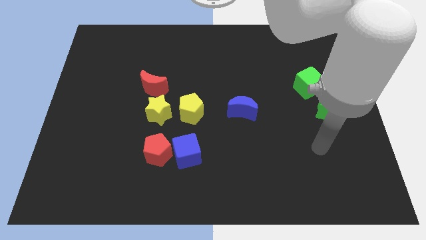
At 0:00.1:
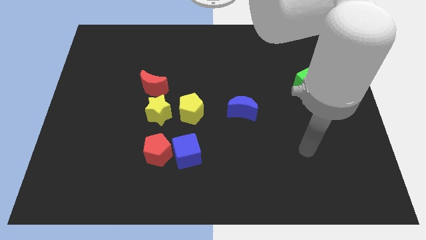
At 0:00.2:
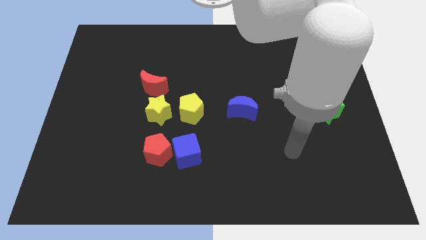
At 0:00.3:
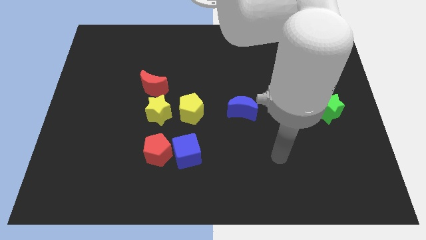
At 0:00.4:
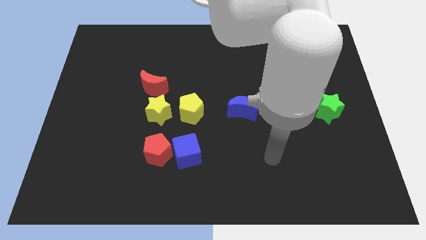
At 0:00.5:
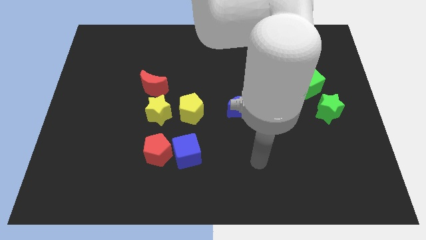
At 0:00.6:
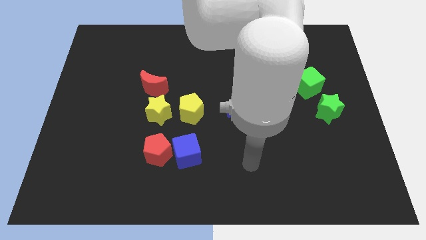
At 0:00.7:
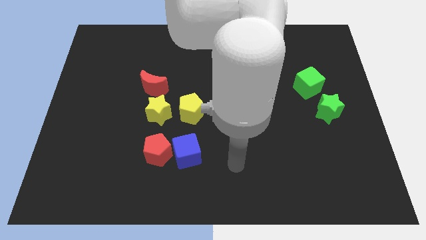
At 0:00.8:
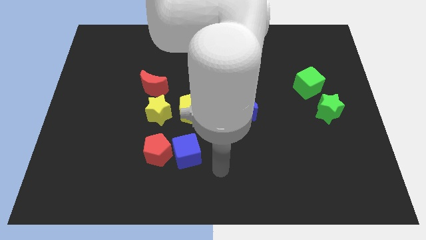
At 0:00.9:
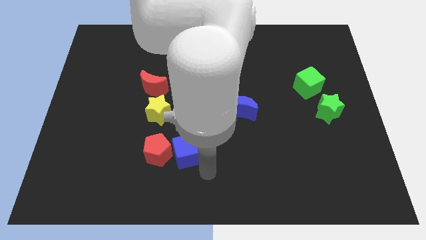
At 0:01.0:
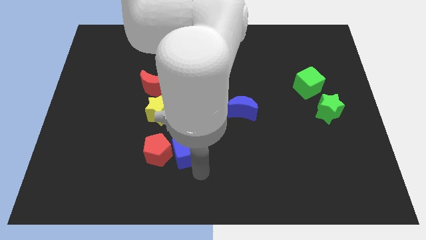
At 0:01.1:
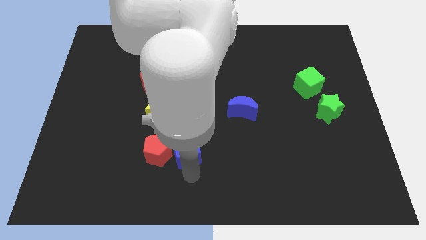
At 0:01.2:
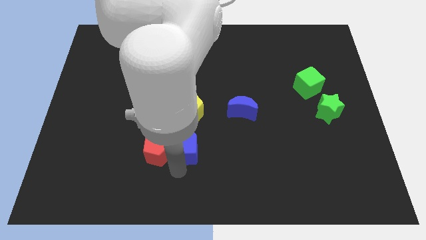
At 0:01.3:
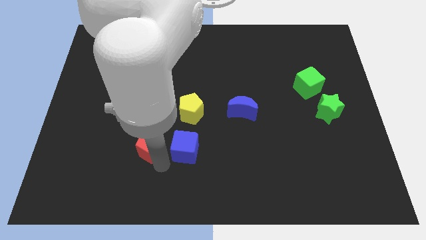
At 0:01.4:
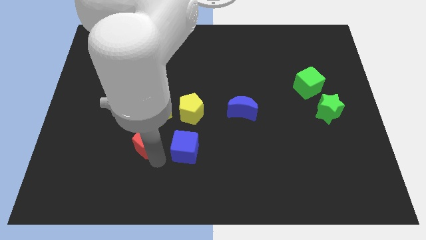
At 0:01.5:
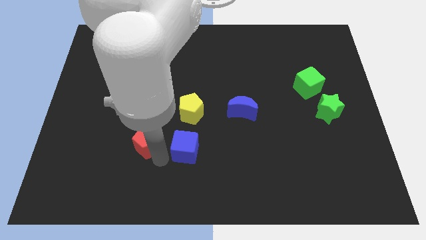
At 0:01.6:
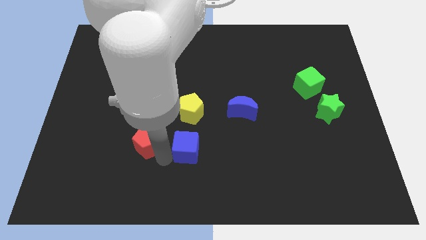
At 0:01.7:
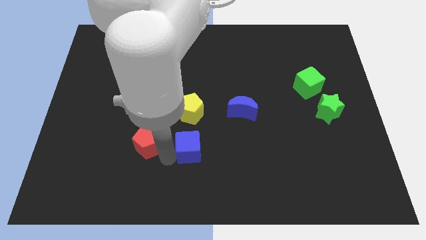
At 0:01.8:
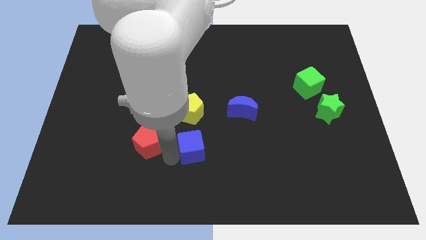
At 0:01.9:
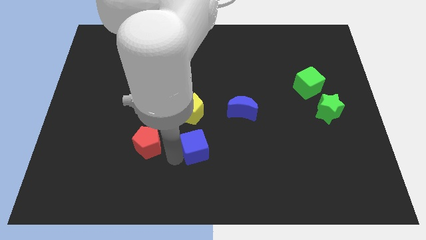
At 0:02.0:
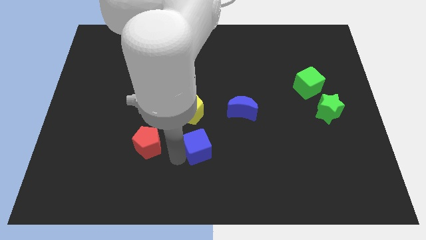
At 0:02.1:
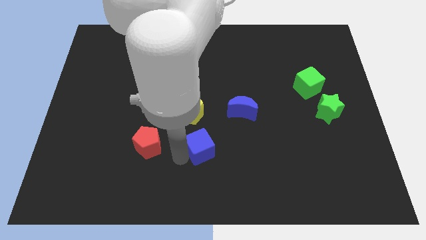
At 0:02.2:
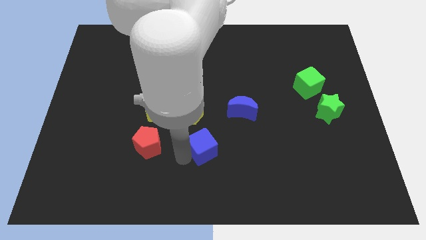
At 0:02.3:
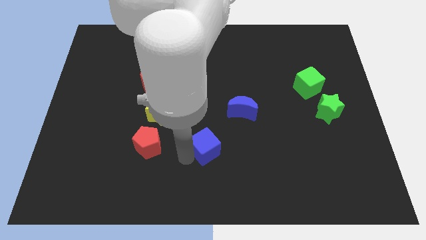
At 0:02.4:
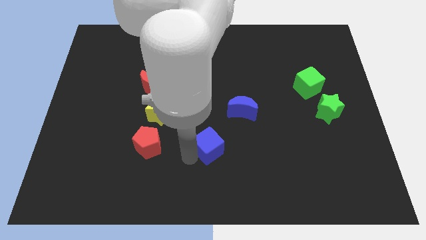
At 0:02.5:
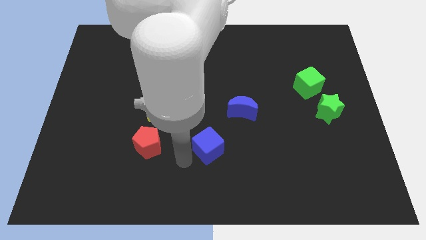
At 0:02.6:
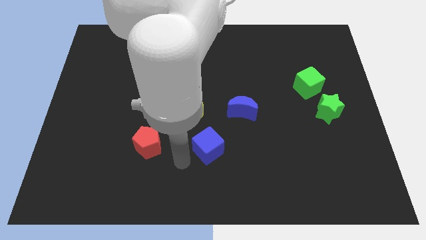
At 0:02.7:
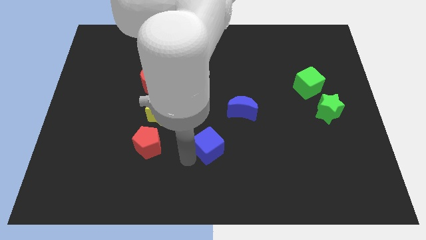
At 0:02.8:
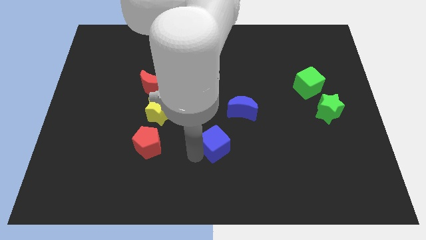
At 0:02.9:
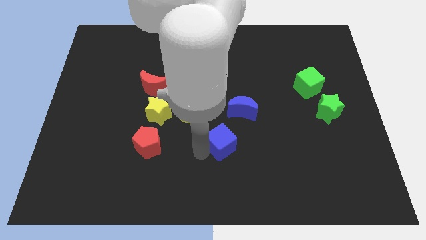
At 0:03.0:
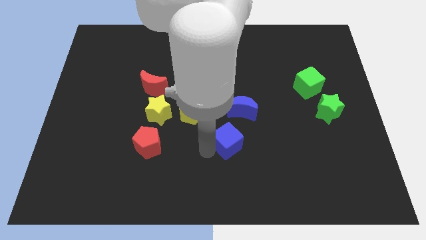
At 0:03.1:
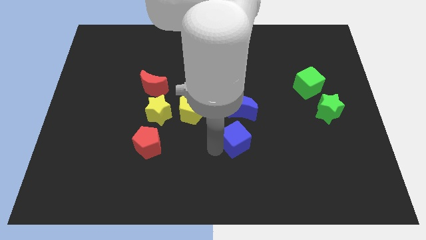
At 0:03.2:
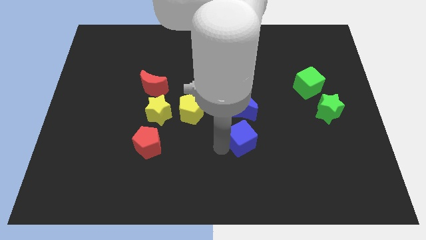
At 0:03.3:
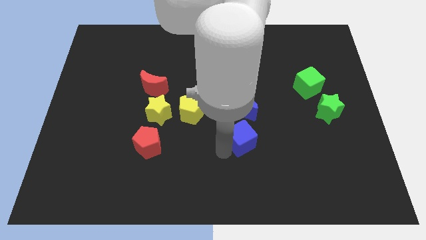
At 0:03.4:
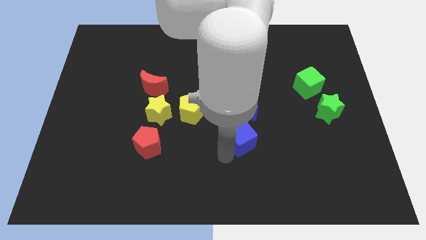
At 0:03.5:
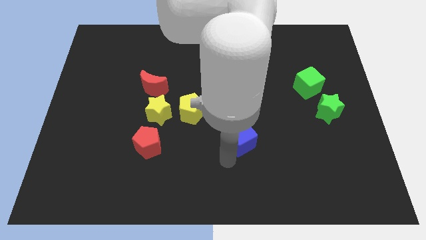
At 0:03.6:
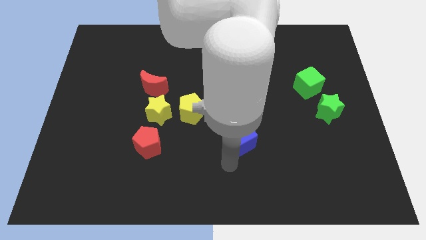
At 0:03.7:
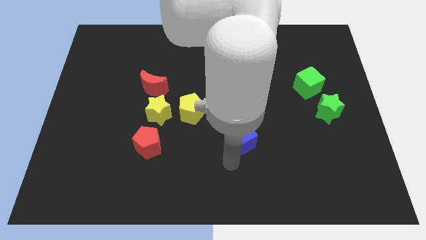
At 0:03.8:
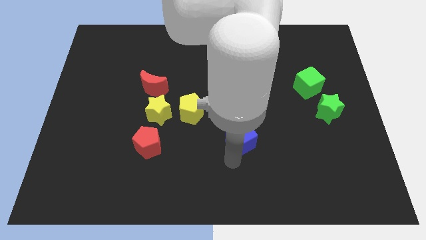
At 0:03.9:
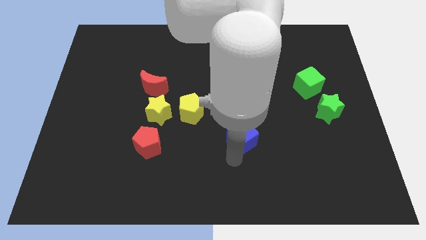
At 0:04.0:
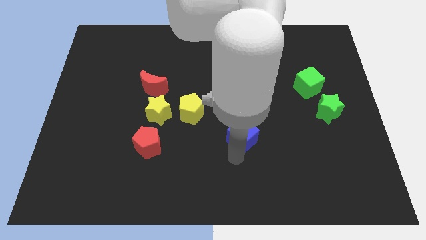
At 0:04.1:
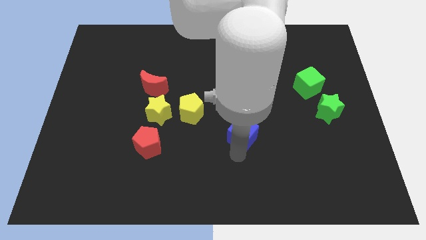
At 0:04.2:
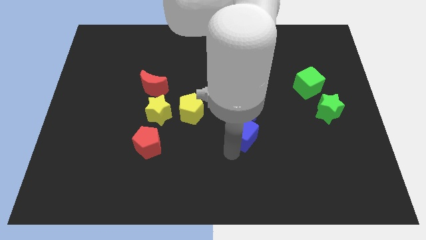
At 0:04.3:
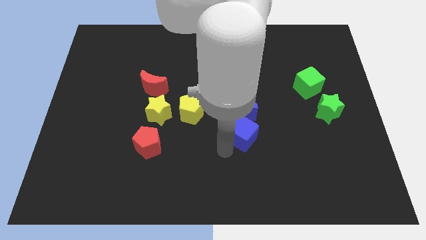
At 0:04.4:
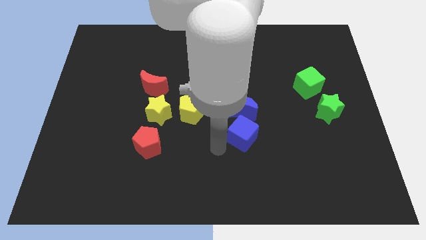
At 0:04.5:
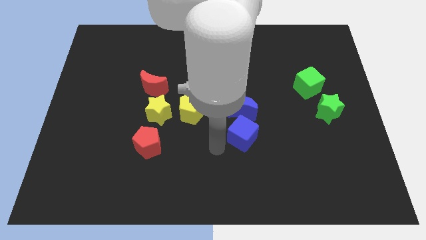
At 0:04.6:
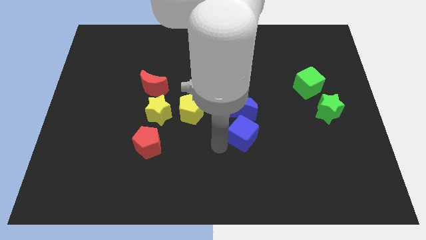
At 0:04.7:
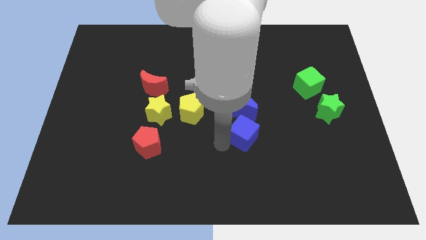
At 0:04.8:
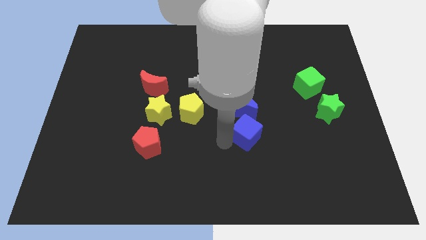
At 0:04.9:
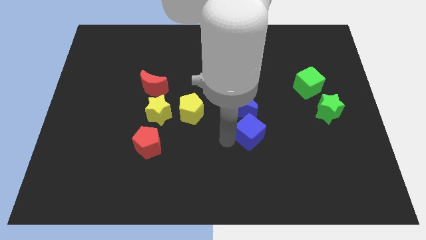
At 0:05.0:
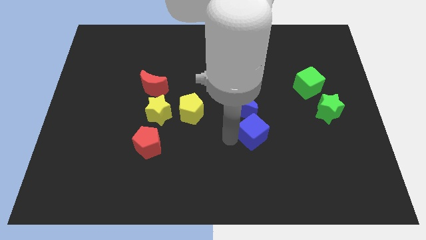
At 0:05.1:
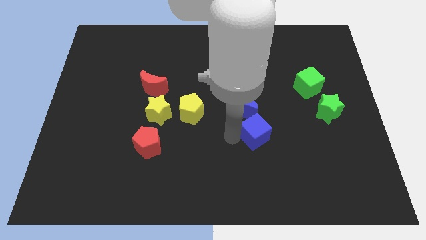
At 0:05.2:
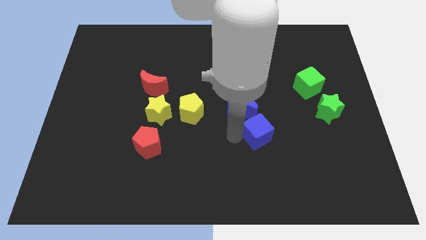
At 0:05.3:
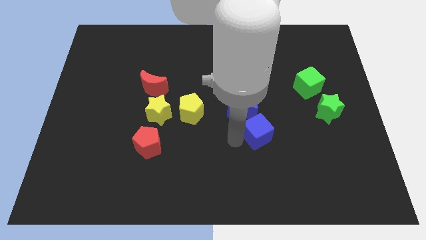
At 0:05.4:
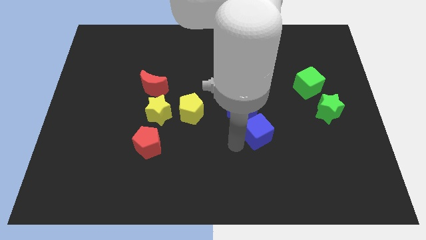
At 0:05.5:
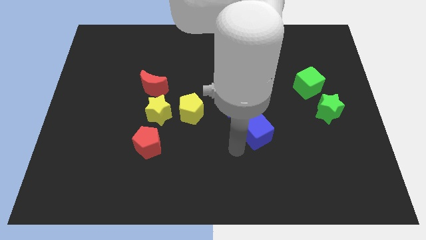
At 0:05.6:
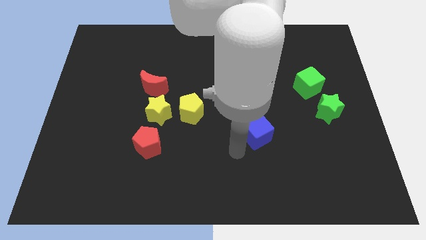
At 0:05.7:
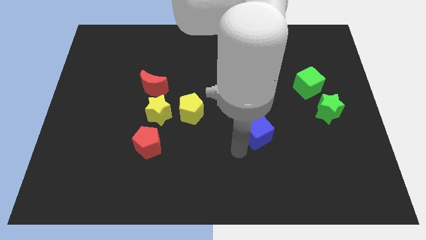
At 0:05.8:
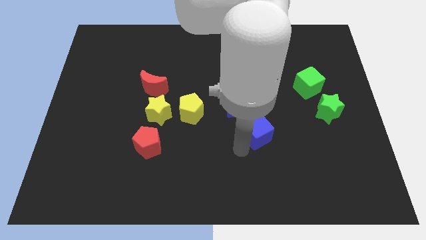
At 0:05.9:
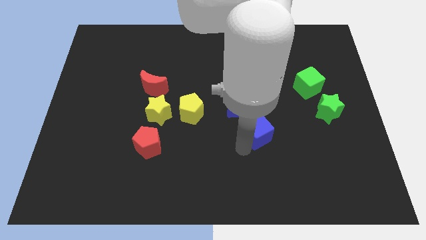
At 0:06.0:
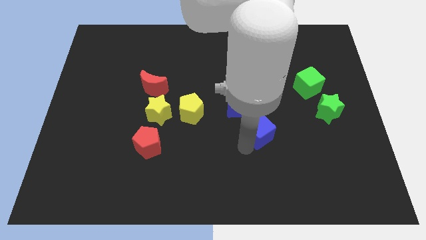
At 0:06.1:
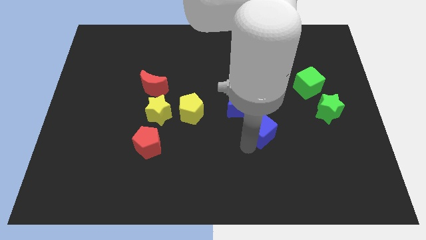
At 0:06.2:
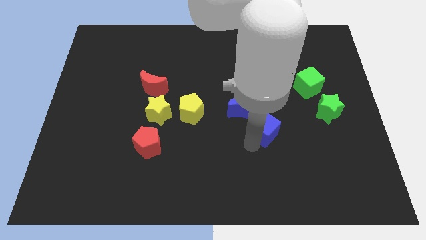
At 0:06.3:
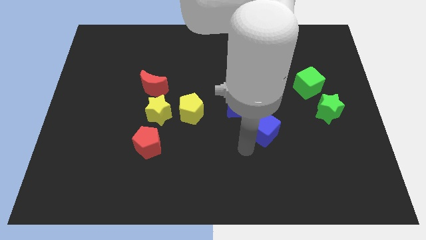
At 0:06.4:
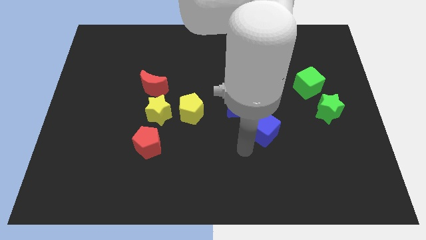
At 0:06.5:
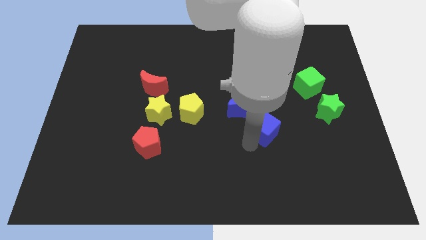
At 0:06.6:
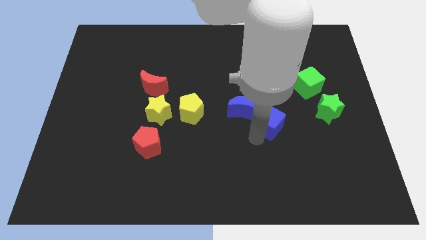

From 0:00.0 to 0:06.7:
move the blue cube to the left side of the green star

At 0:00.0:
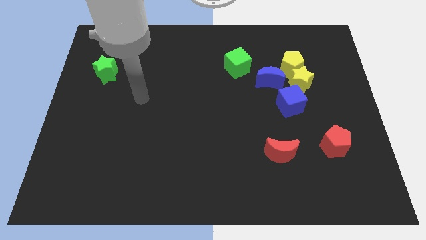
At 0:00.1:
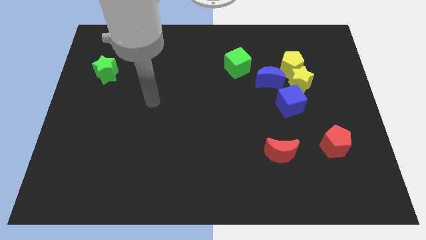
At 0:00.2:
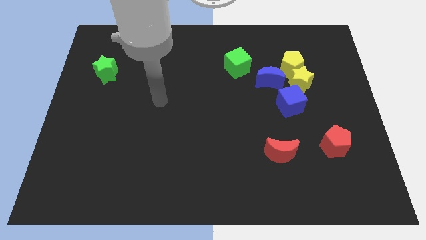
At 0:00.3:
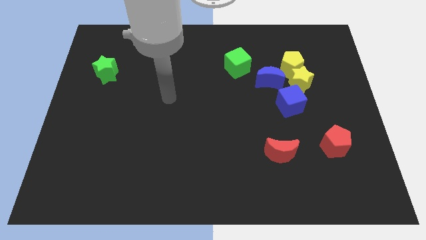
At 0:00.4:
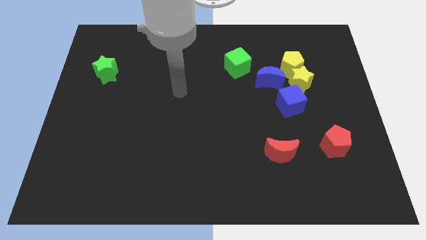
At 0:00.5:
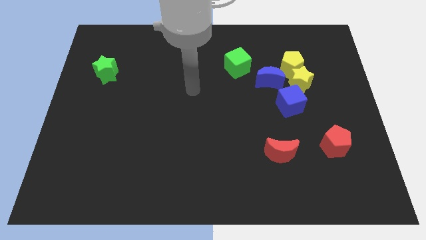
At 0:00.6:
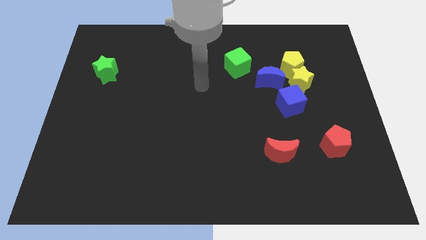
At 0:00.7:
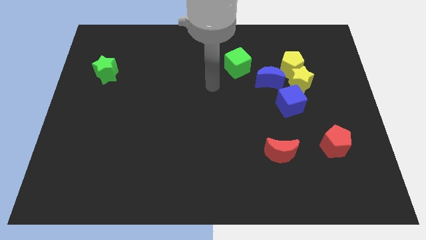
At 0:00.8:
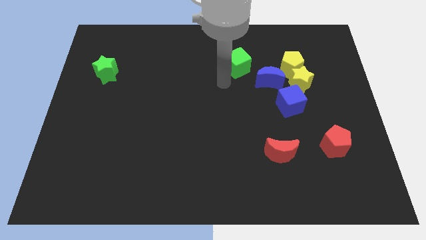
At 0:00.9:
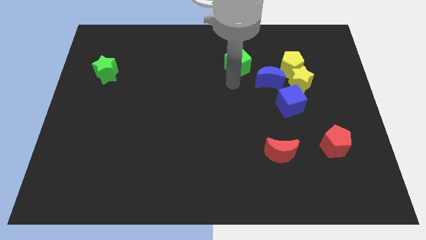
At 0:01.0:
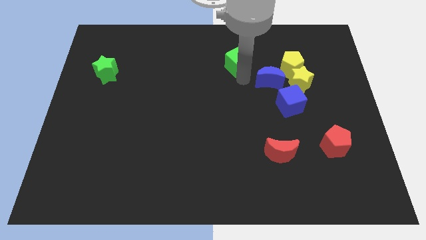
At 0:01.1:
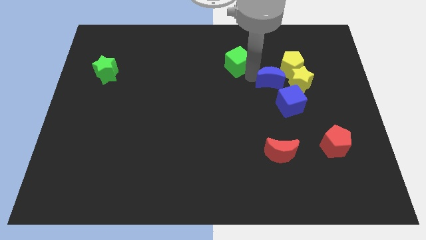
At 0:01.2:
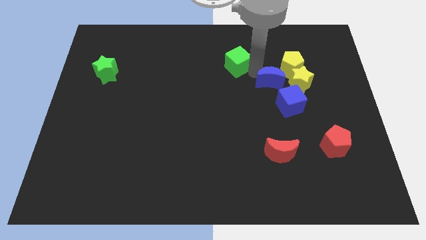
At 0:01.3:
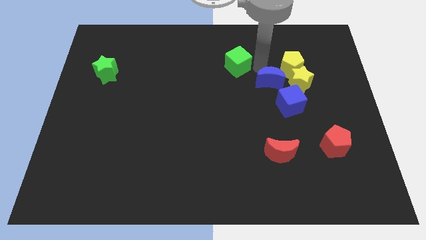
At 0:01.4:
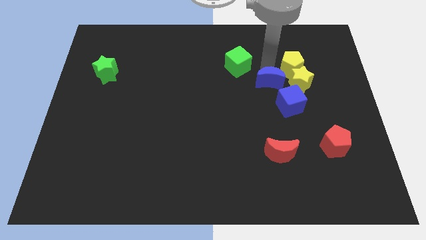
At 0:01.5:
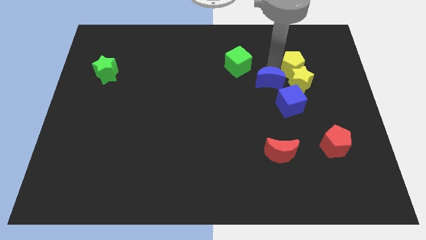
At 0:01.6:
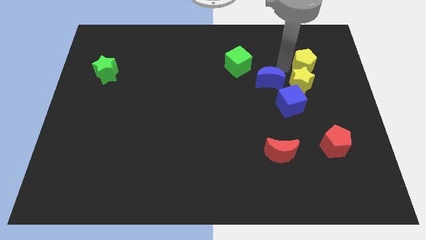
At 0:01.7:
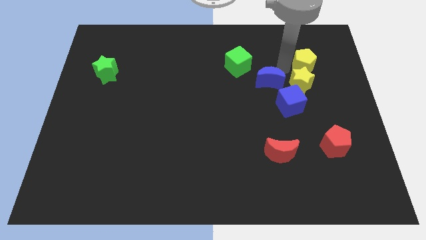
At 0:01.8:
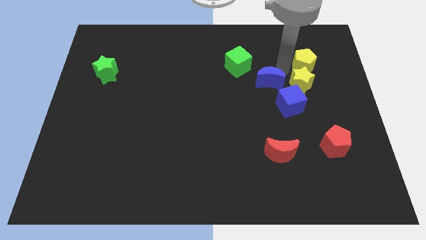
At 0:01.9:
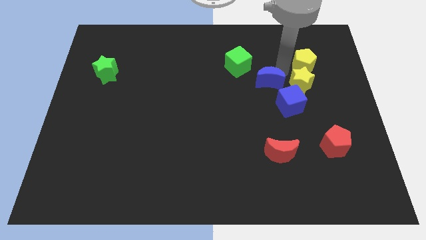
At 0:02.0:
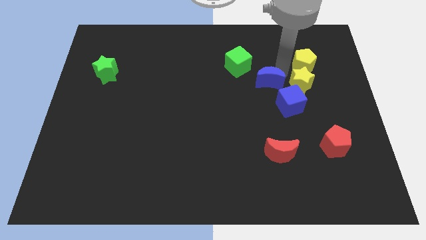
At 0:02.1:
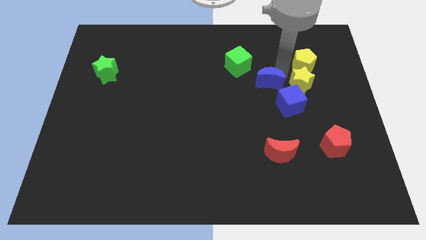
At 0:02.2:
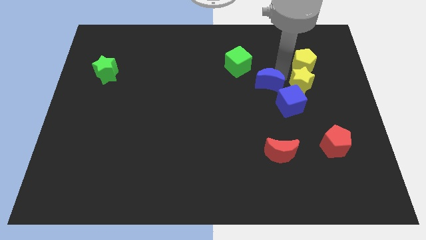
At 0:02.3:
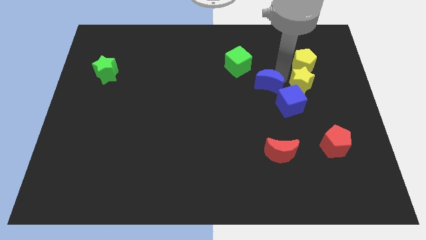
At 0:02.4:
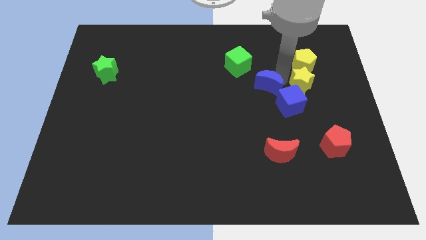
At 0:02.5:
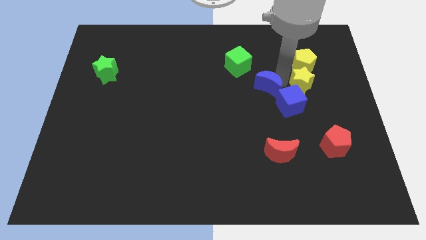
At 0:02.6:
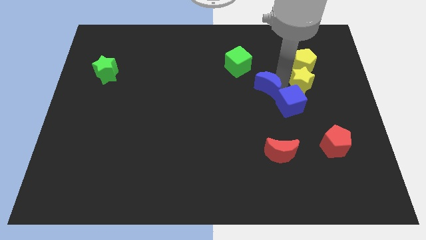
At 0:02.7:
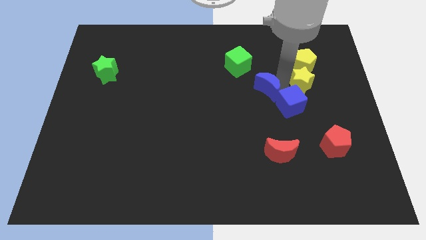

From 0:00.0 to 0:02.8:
put the blue moon just left of the blue cube
